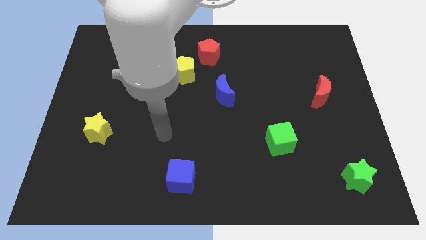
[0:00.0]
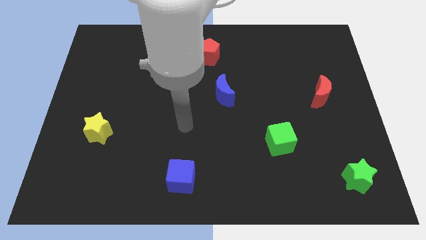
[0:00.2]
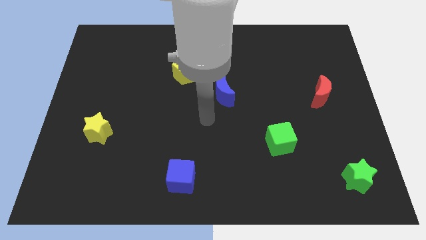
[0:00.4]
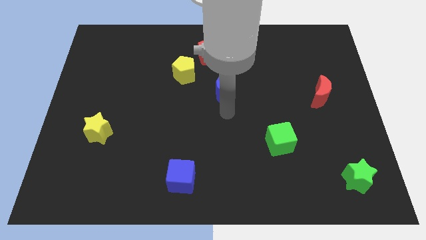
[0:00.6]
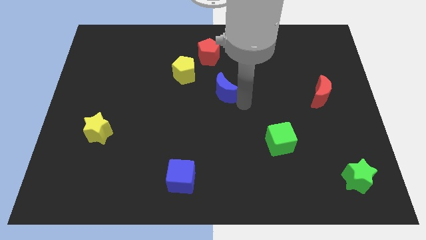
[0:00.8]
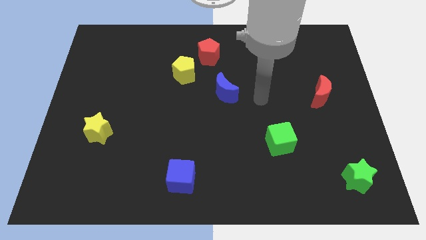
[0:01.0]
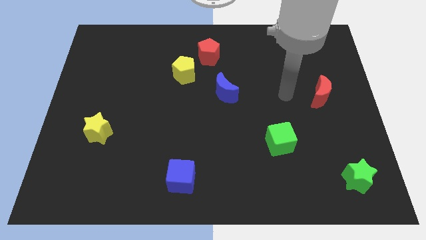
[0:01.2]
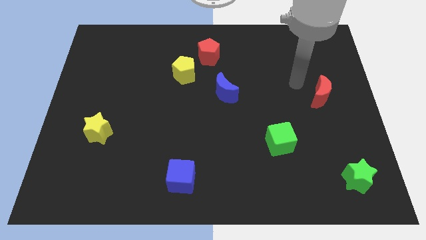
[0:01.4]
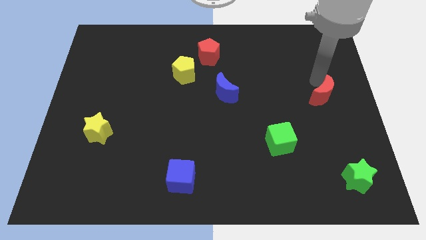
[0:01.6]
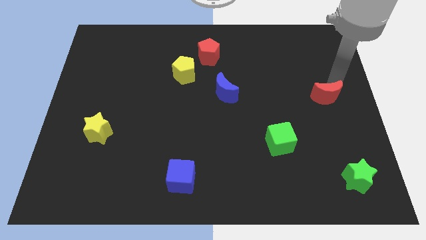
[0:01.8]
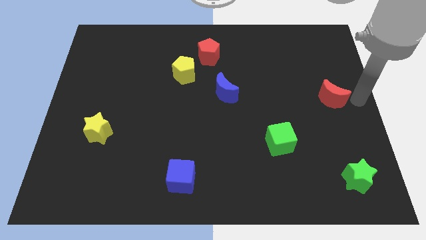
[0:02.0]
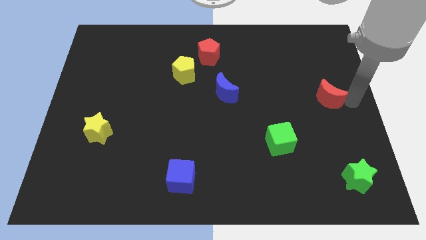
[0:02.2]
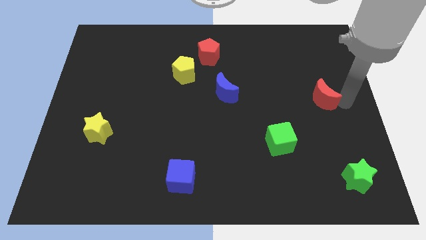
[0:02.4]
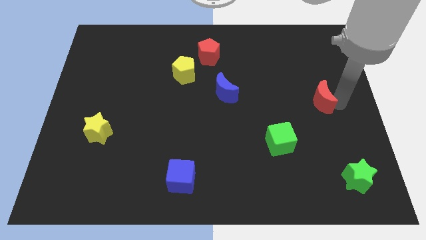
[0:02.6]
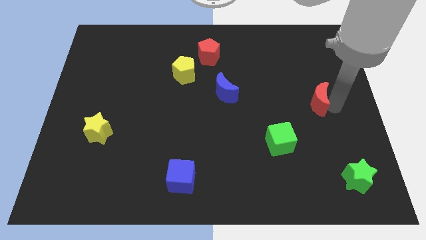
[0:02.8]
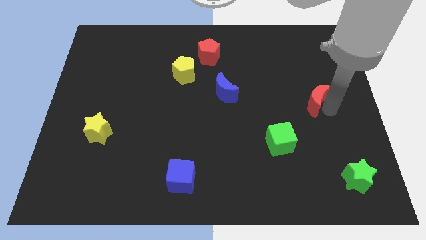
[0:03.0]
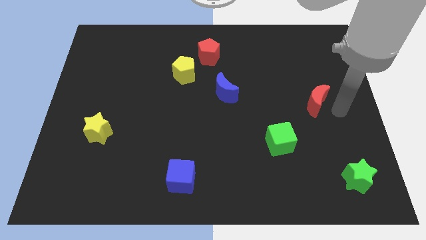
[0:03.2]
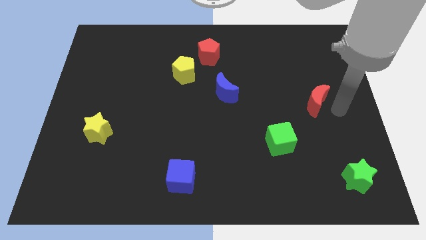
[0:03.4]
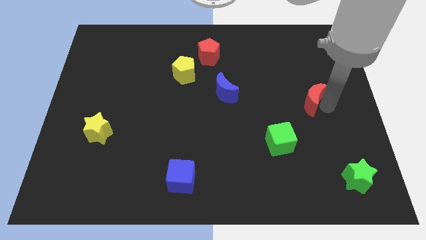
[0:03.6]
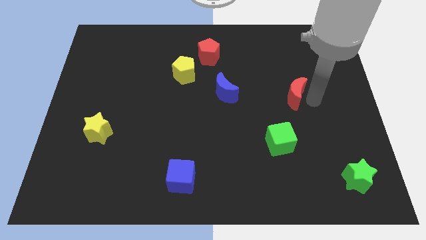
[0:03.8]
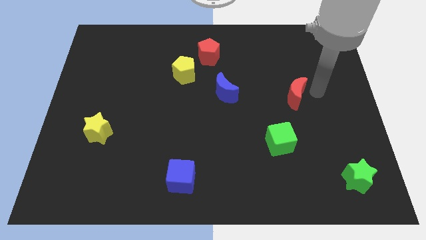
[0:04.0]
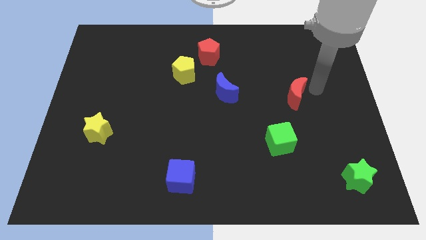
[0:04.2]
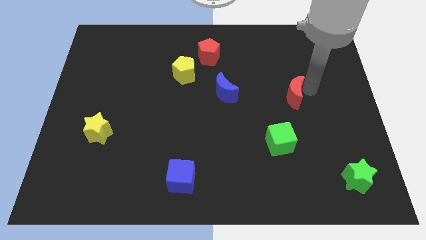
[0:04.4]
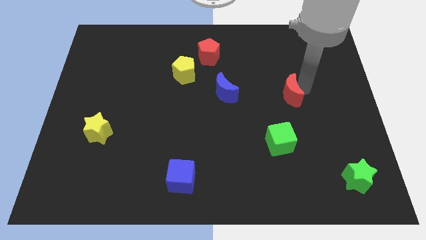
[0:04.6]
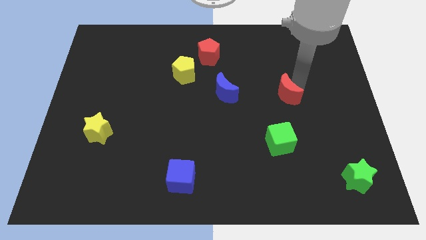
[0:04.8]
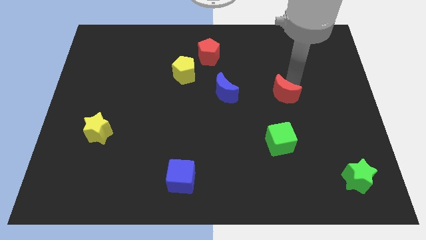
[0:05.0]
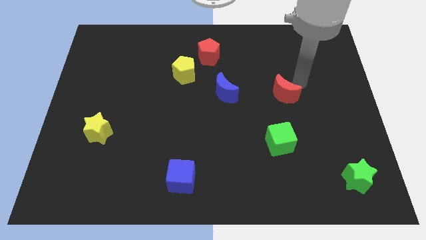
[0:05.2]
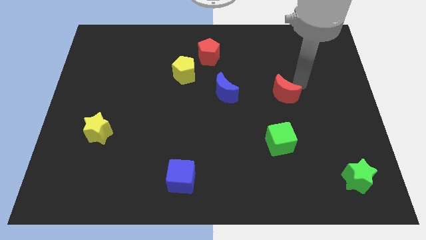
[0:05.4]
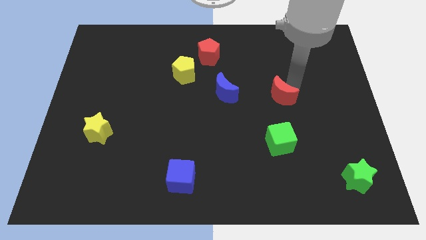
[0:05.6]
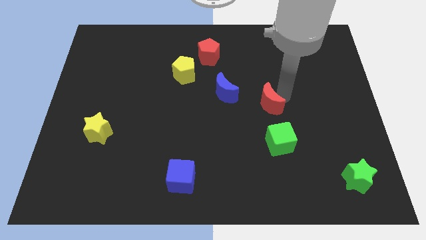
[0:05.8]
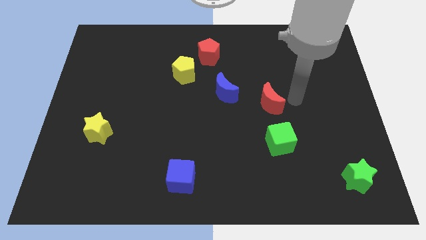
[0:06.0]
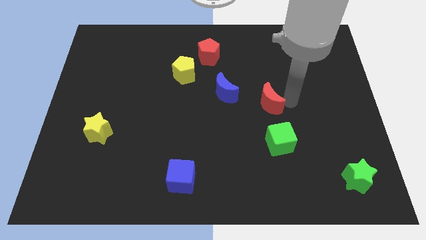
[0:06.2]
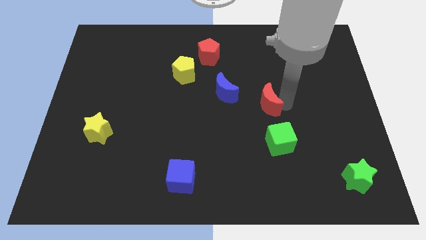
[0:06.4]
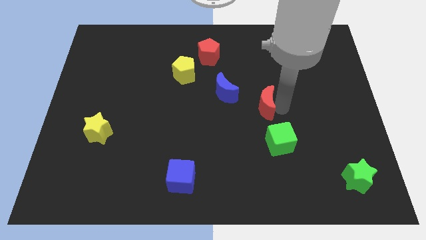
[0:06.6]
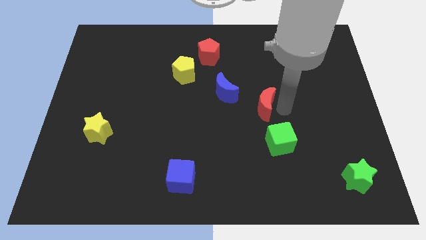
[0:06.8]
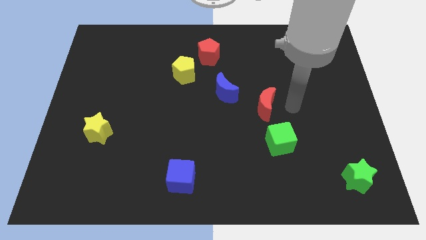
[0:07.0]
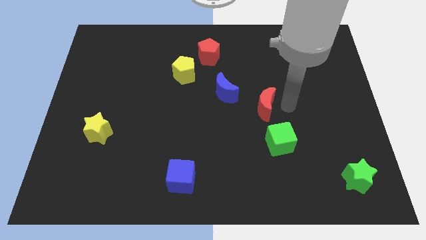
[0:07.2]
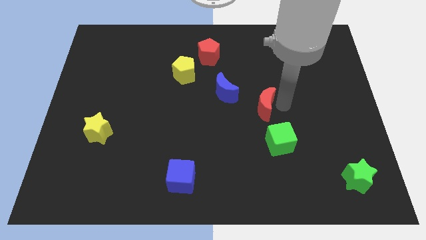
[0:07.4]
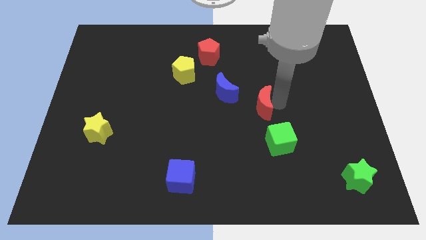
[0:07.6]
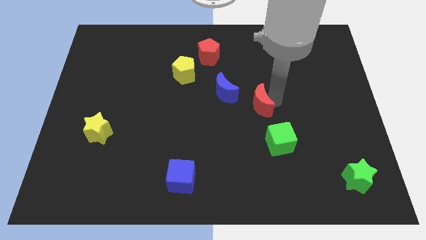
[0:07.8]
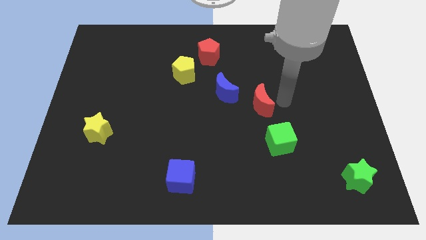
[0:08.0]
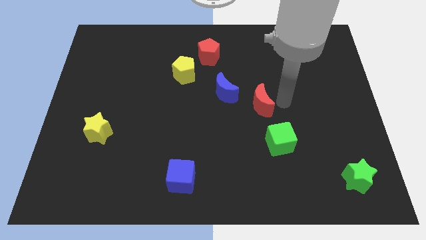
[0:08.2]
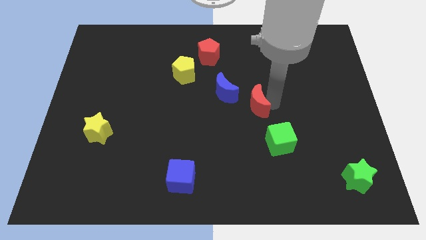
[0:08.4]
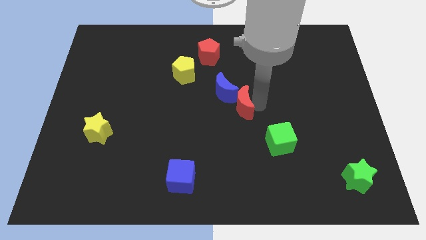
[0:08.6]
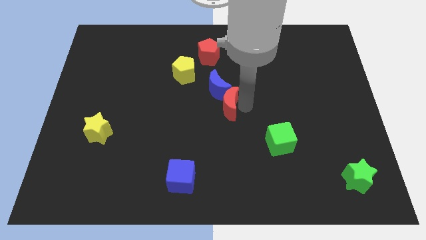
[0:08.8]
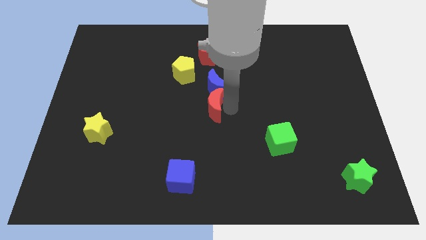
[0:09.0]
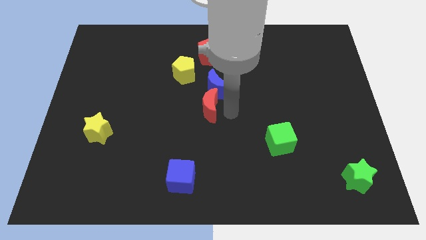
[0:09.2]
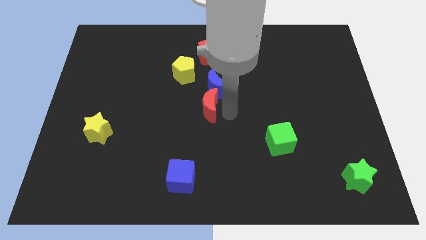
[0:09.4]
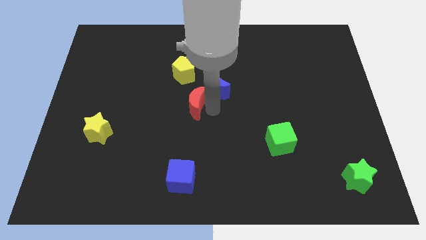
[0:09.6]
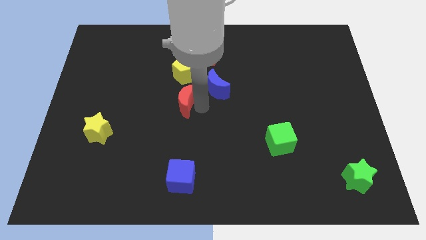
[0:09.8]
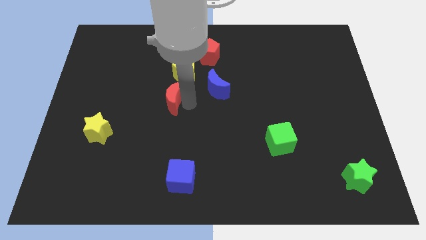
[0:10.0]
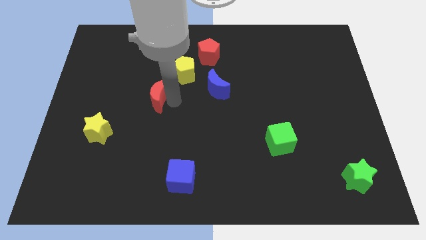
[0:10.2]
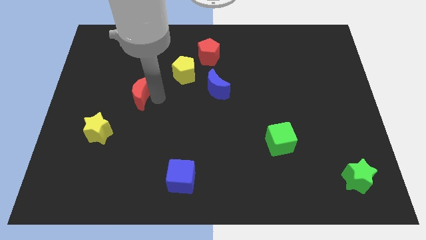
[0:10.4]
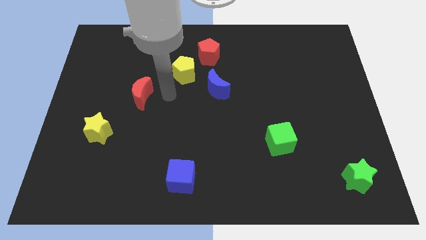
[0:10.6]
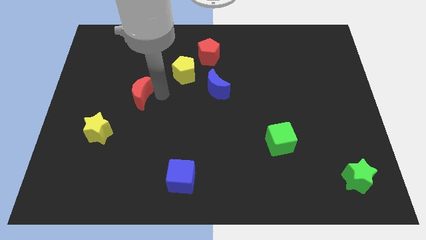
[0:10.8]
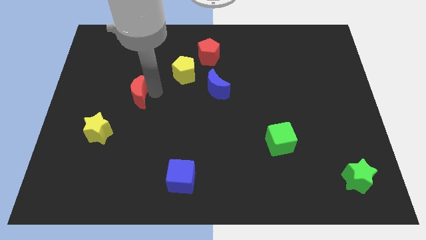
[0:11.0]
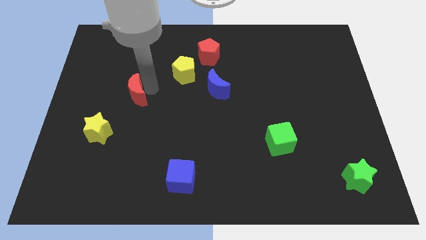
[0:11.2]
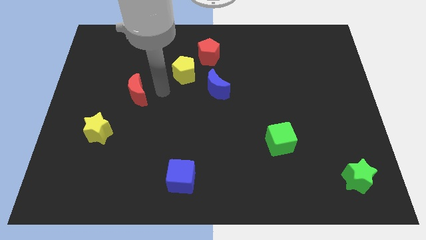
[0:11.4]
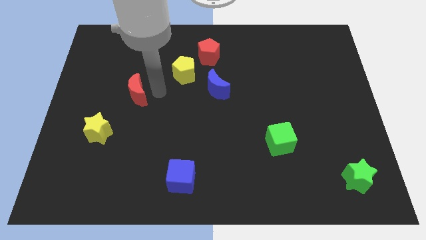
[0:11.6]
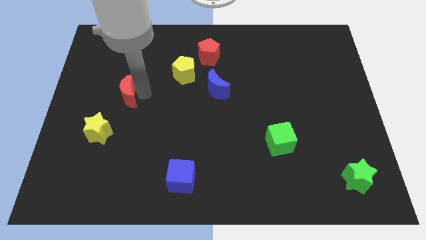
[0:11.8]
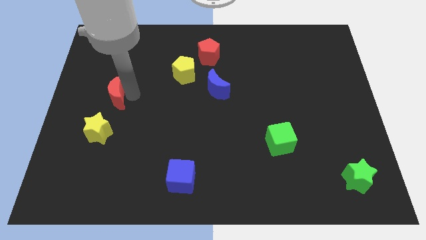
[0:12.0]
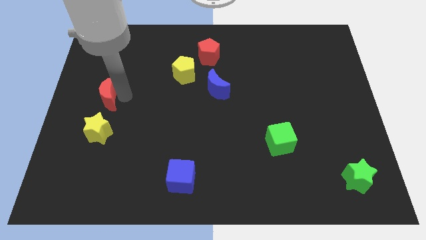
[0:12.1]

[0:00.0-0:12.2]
push the red moon to the center left
